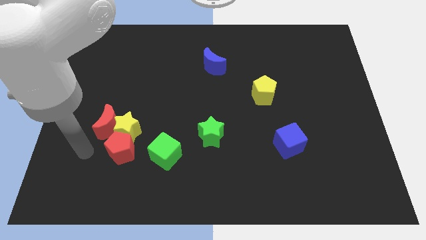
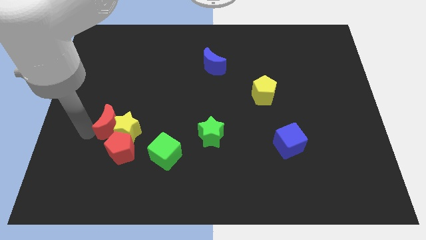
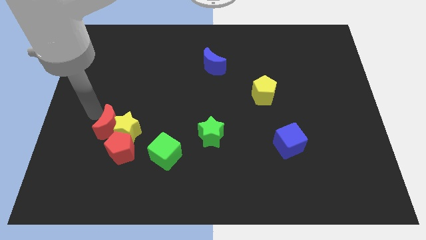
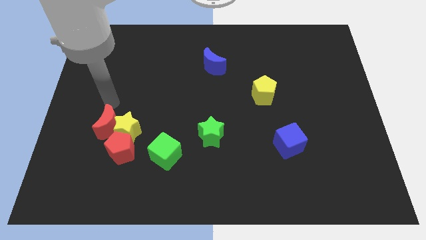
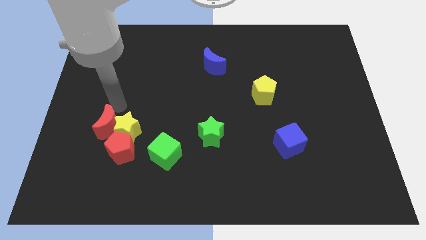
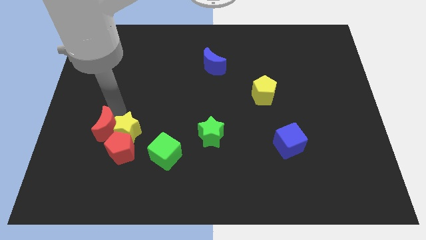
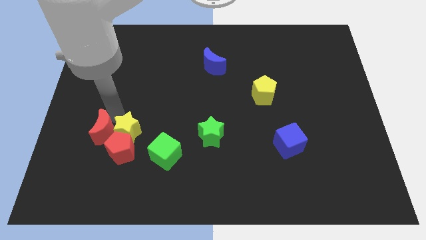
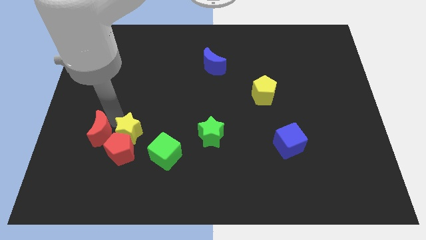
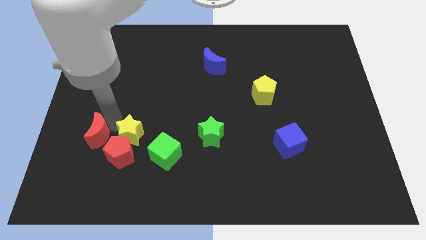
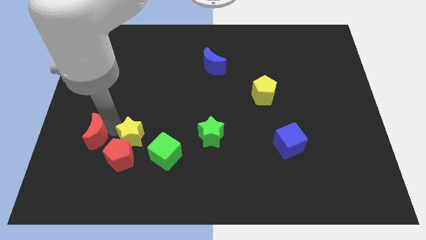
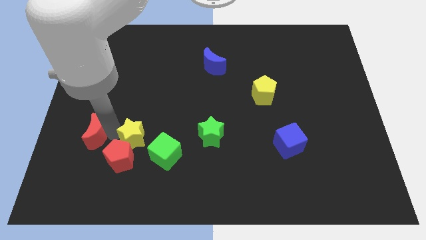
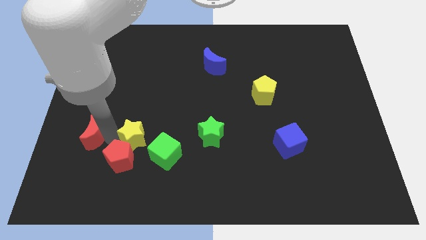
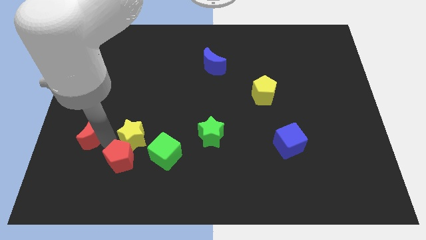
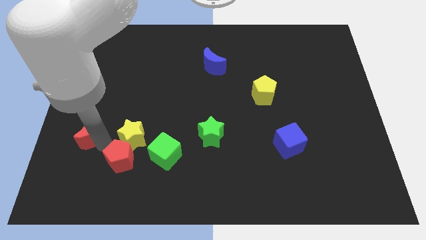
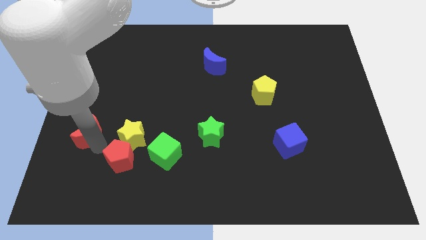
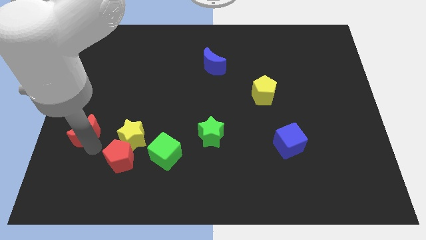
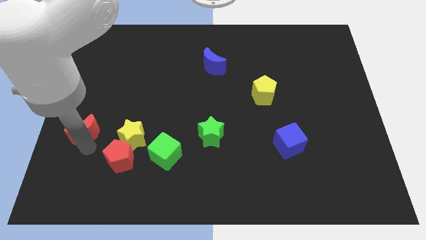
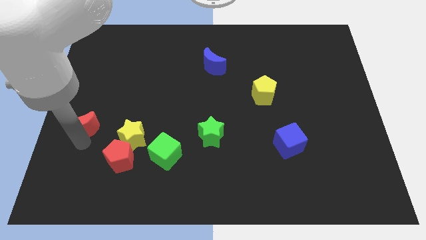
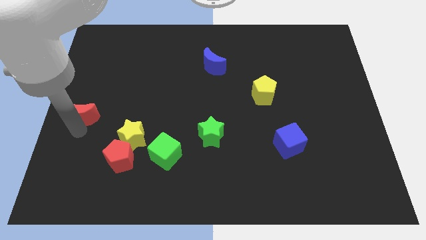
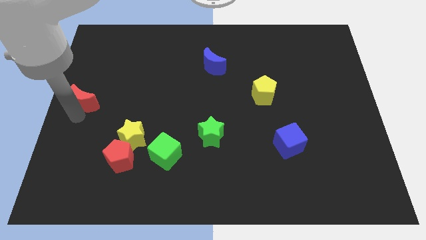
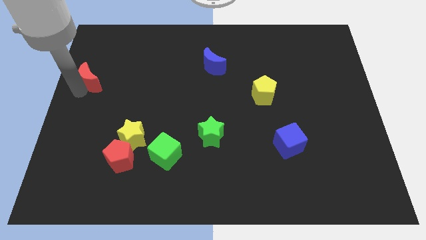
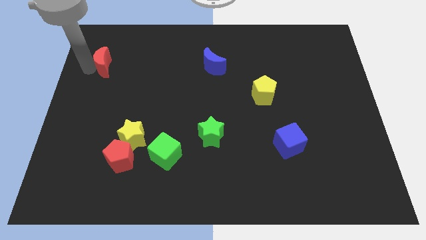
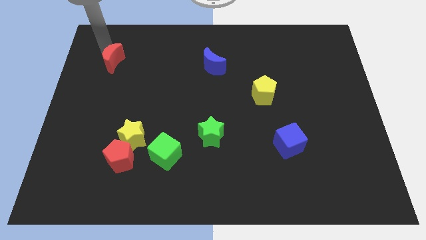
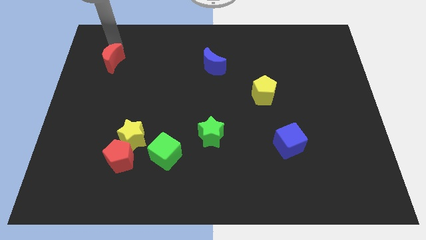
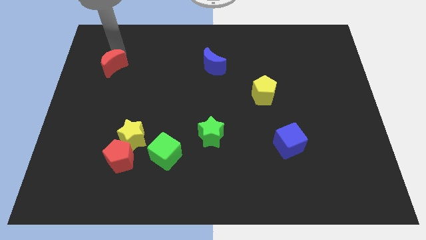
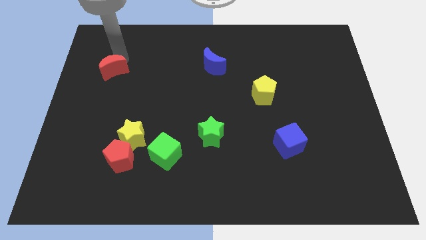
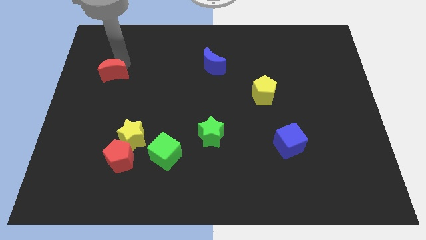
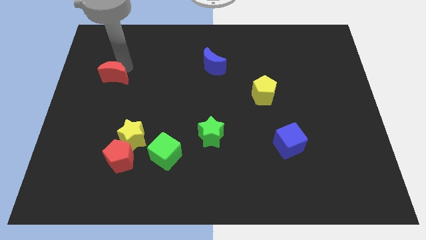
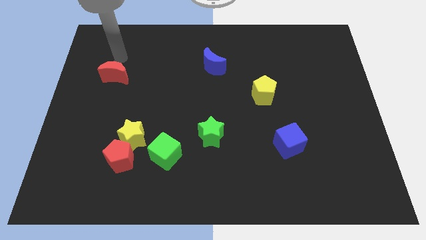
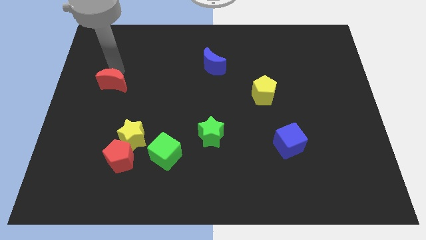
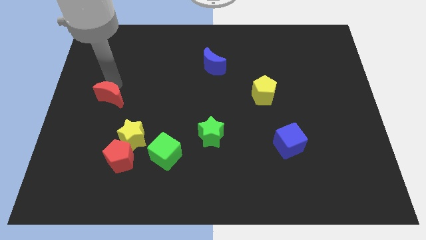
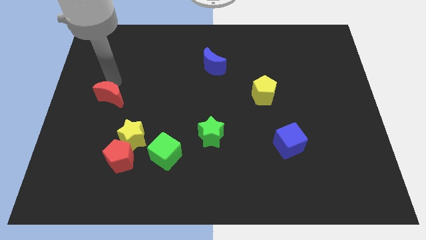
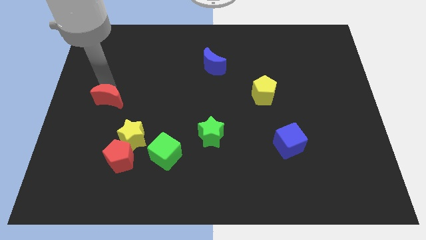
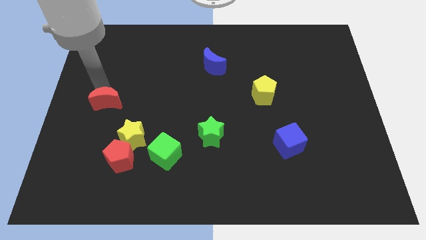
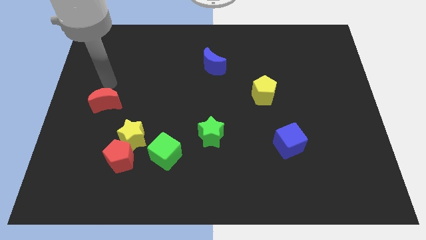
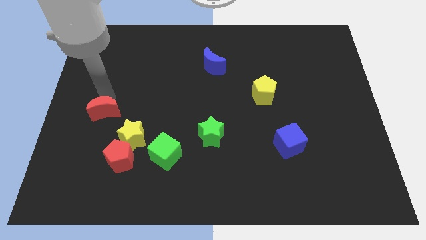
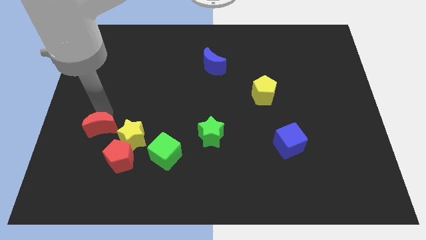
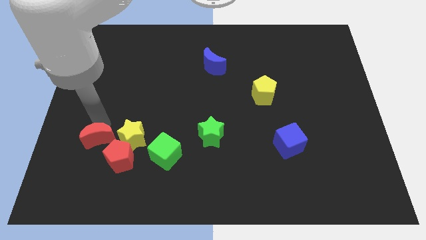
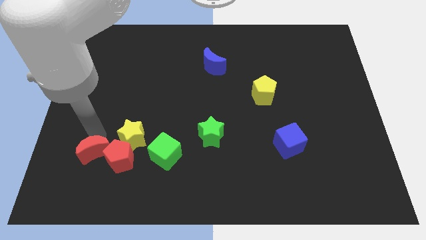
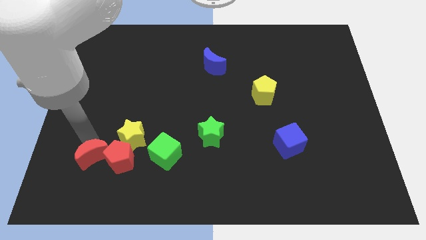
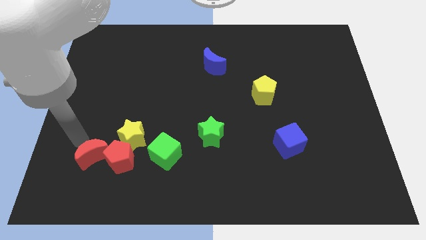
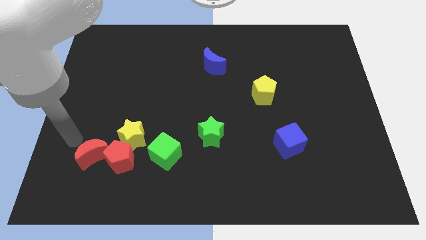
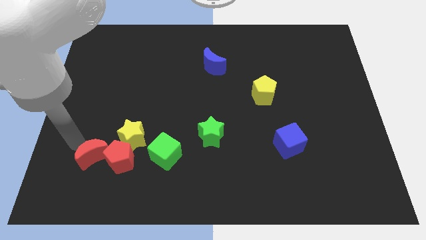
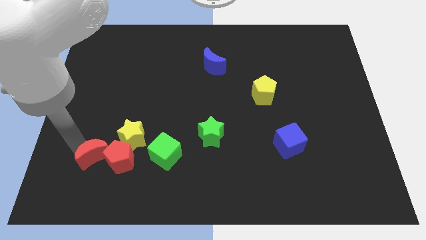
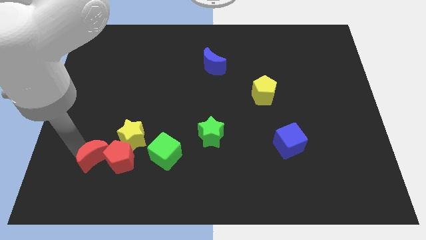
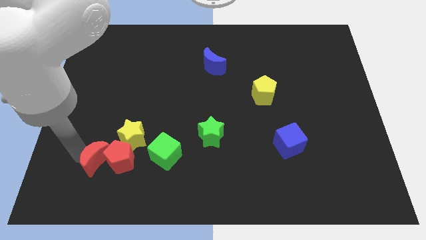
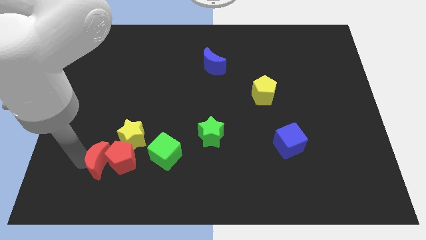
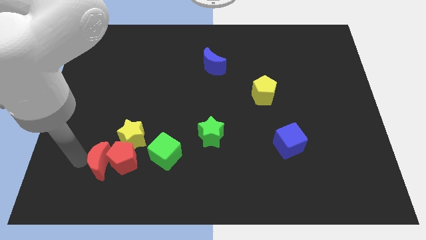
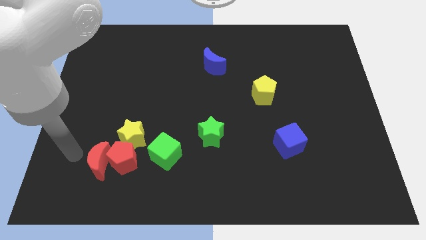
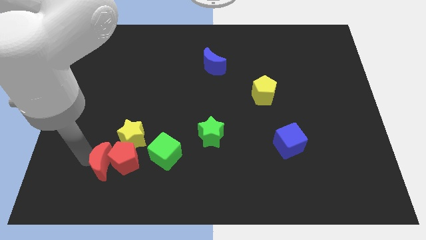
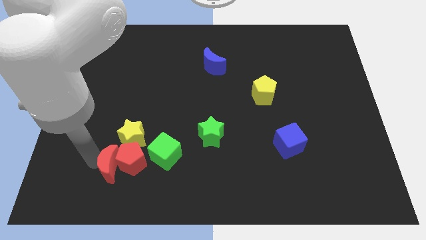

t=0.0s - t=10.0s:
slightly move the red moon downwards and then to the right

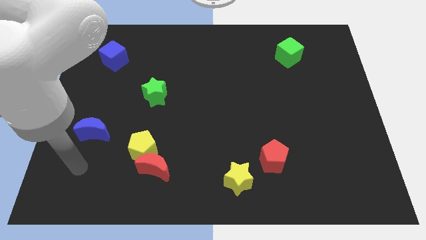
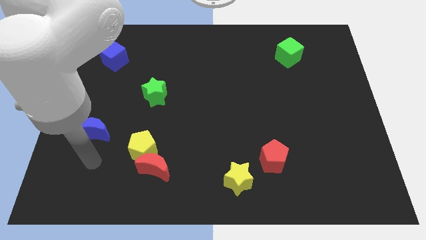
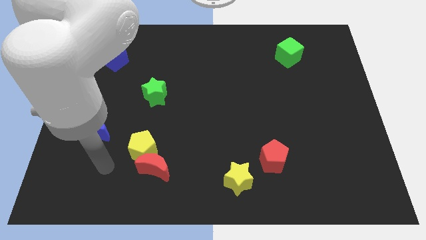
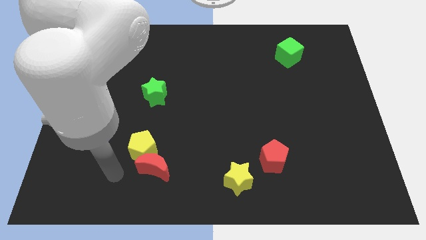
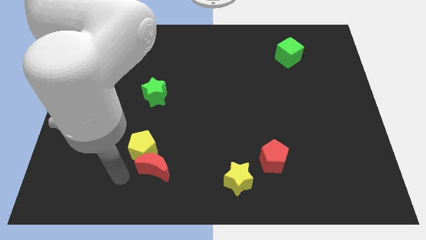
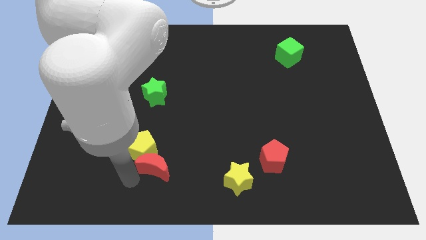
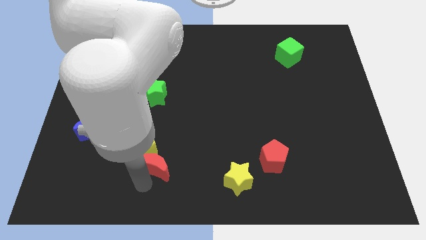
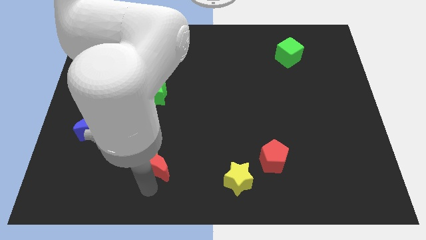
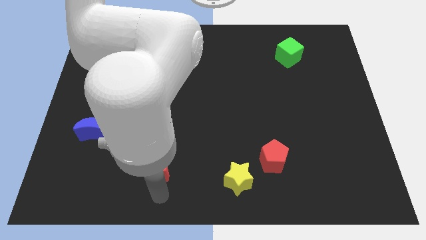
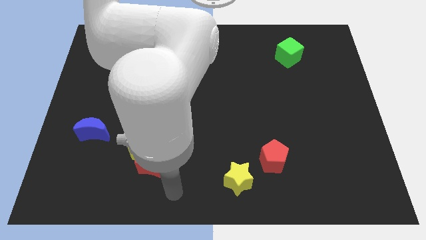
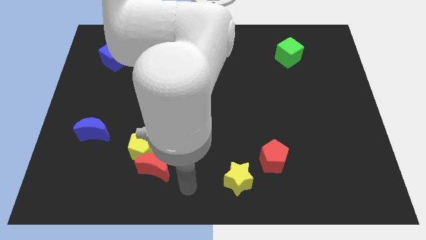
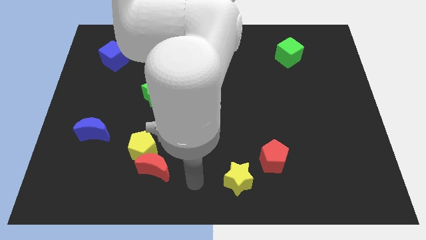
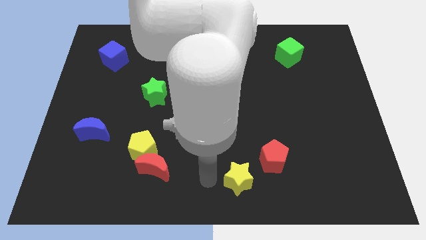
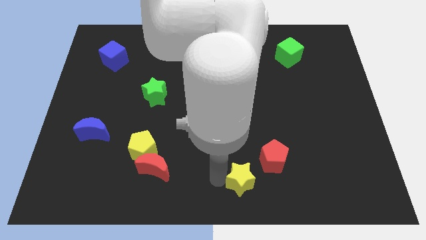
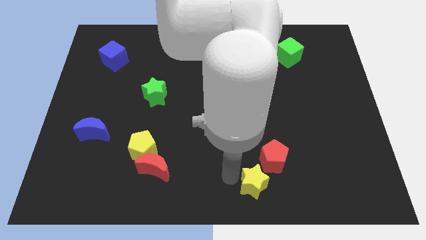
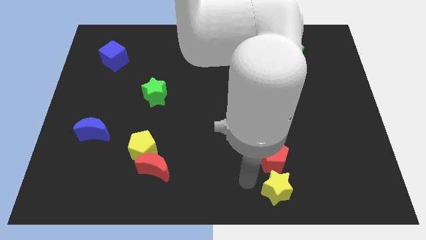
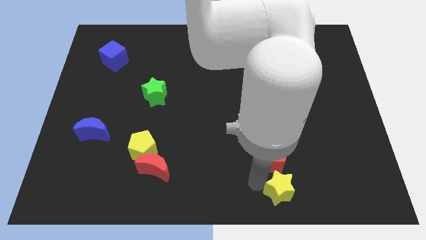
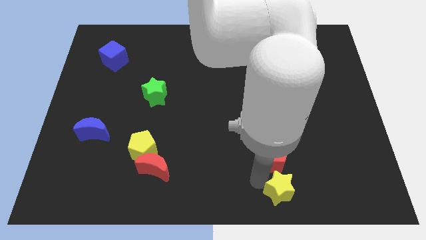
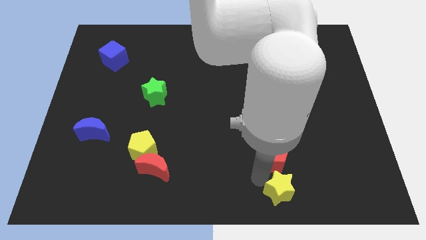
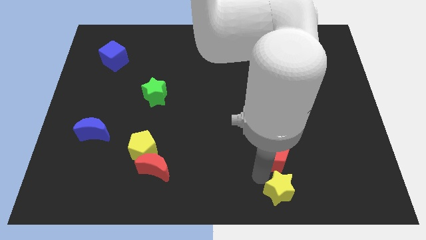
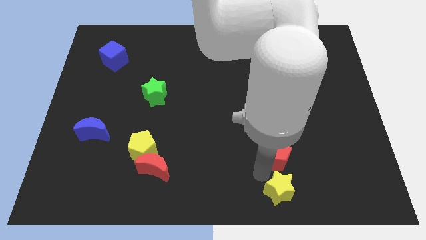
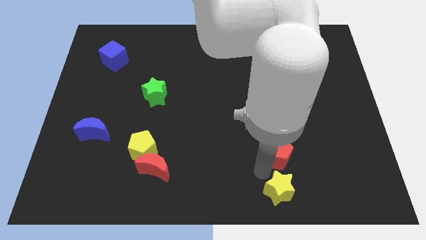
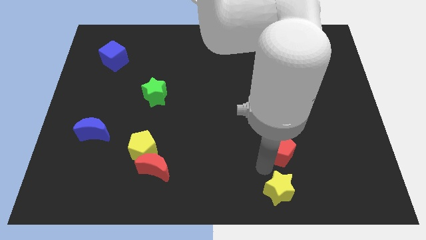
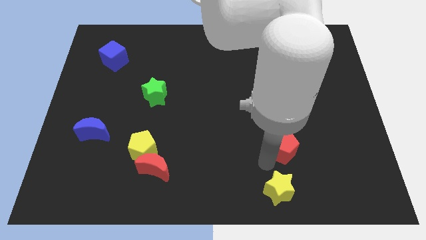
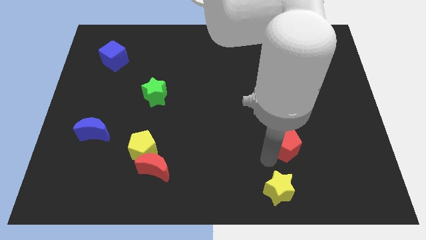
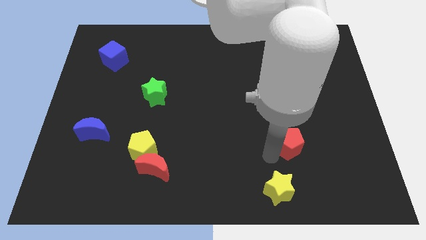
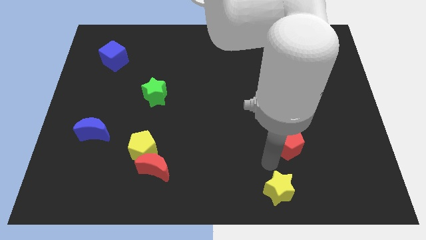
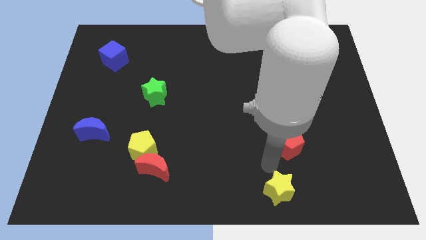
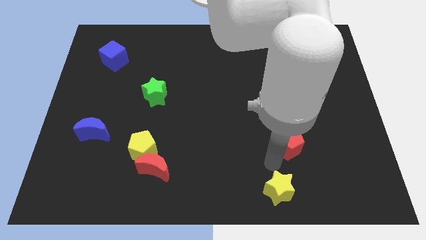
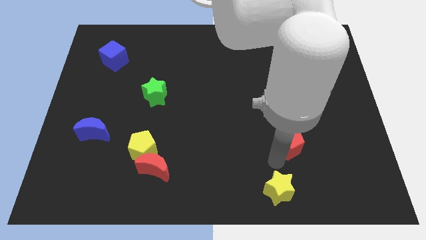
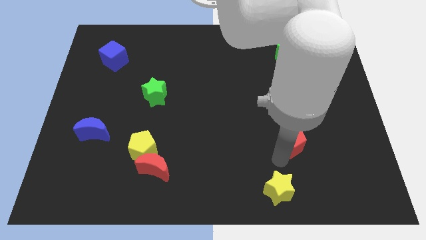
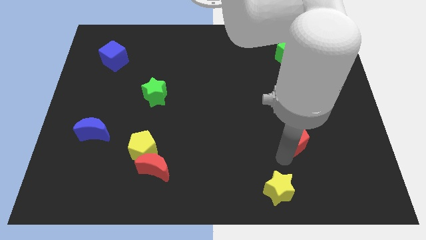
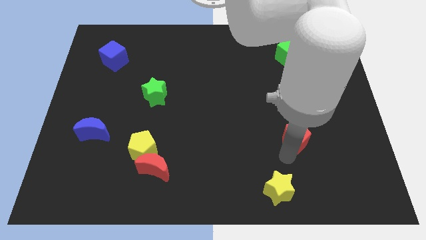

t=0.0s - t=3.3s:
push the red pentagon diagonally upwards and to the right slightly
